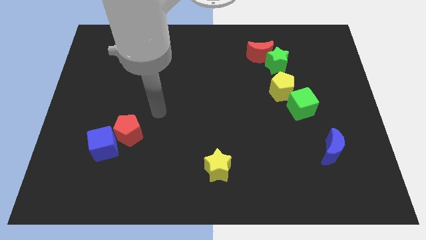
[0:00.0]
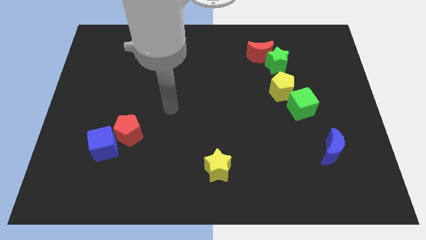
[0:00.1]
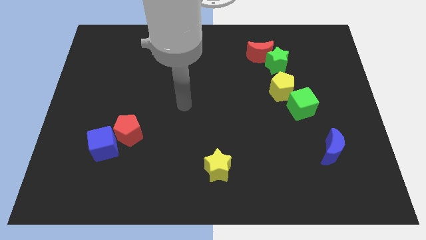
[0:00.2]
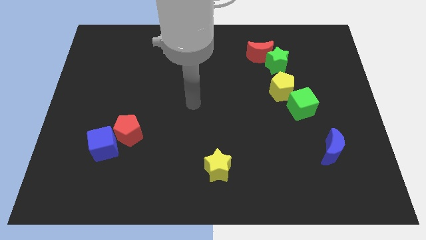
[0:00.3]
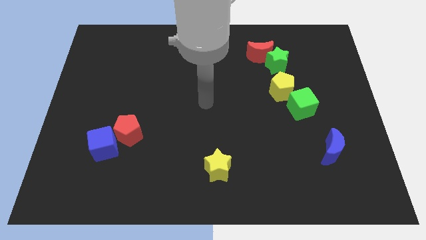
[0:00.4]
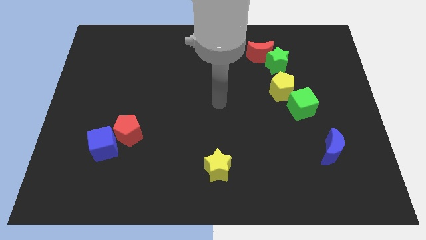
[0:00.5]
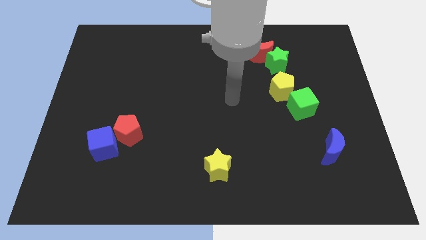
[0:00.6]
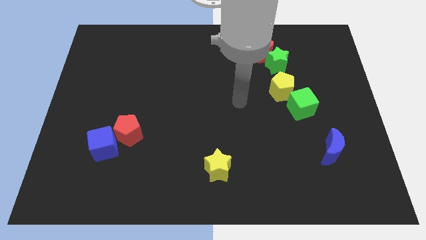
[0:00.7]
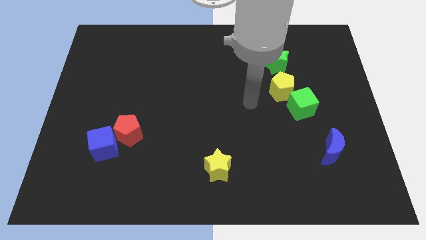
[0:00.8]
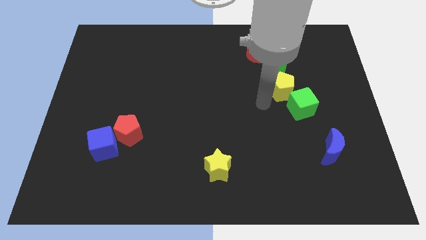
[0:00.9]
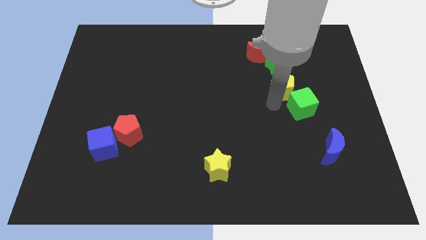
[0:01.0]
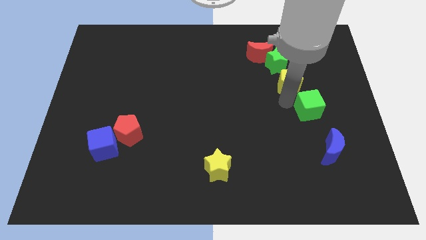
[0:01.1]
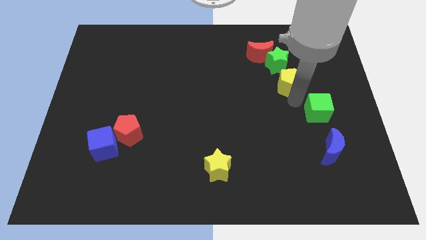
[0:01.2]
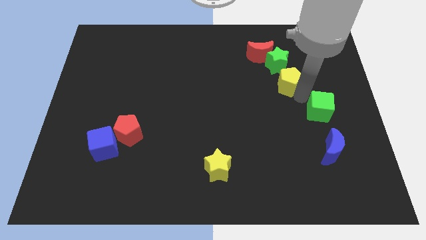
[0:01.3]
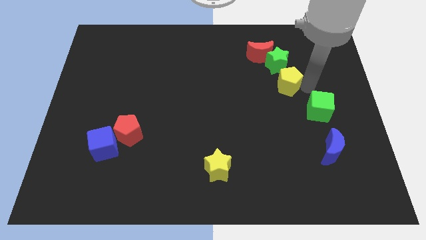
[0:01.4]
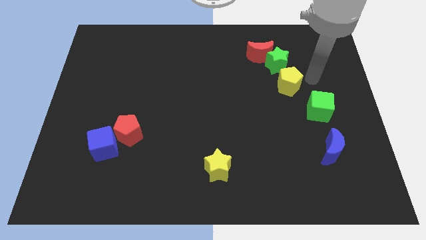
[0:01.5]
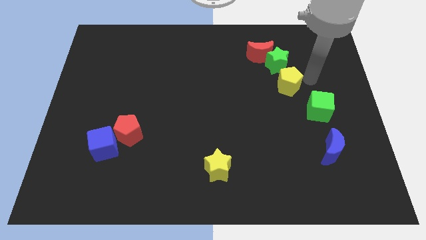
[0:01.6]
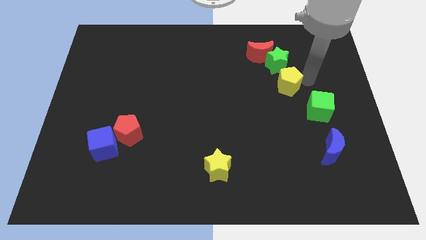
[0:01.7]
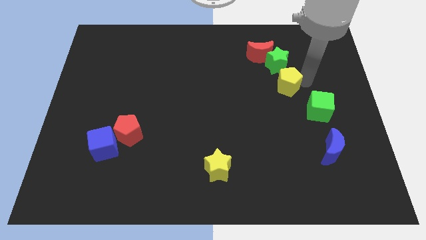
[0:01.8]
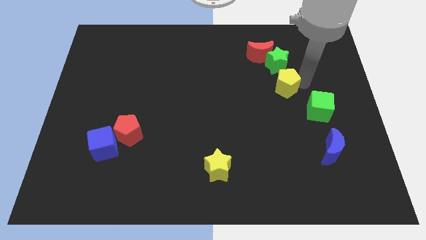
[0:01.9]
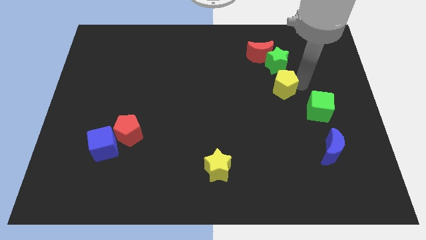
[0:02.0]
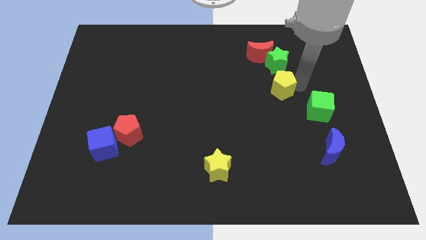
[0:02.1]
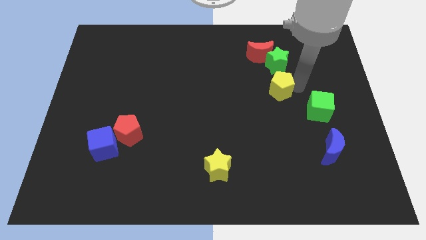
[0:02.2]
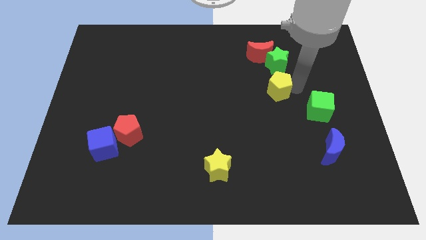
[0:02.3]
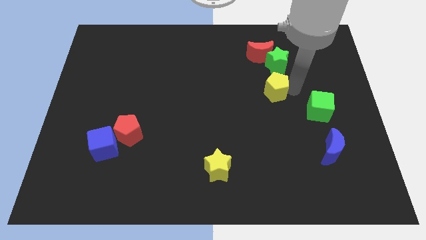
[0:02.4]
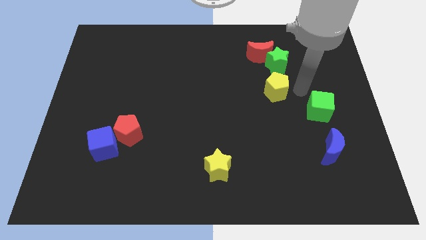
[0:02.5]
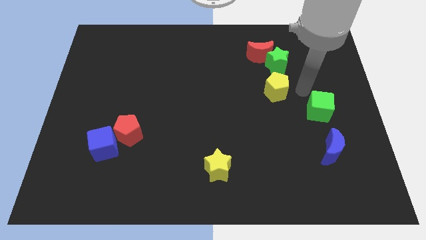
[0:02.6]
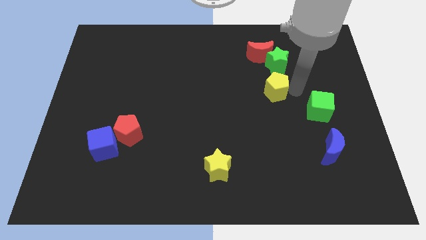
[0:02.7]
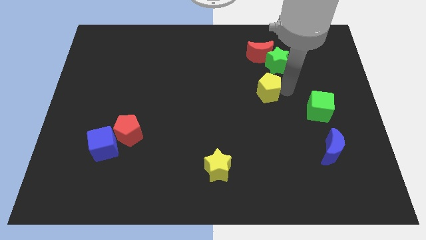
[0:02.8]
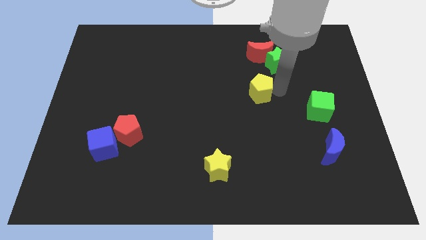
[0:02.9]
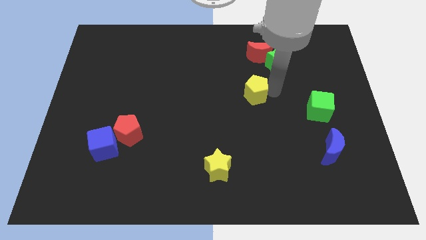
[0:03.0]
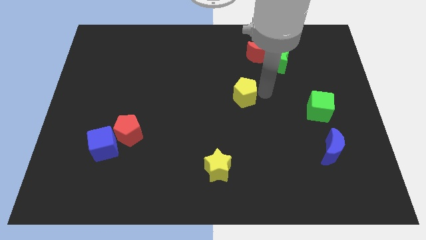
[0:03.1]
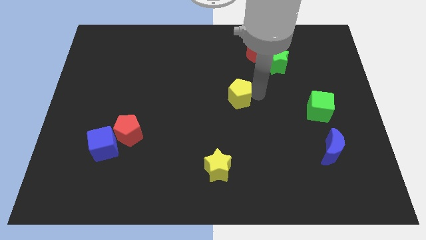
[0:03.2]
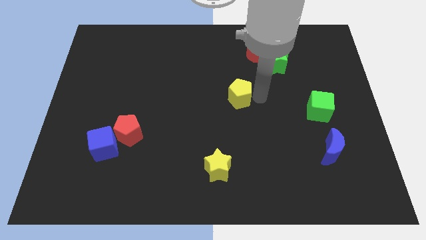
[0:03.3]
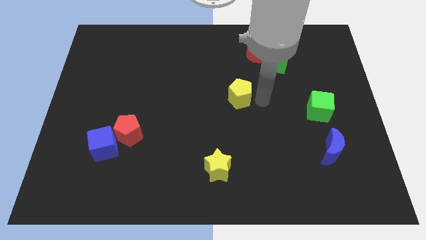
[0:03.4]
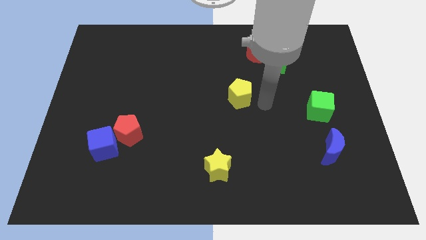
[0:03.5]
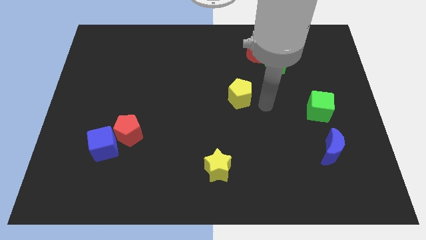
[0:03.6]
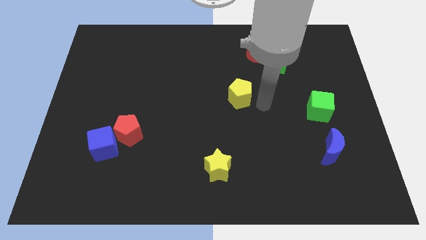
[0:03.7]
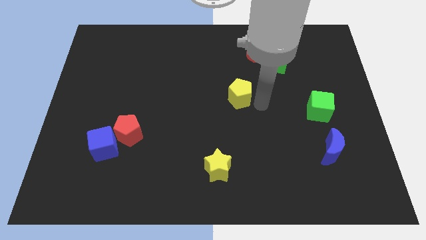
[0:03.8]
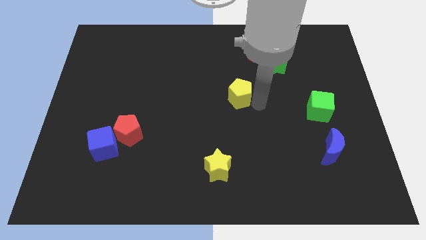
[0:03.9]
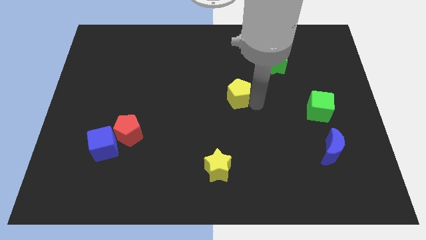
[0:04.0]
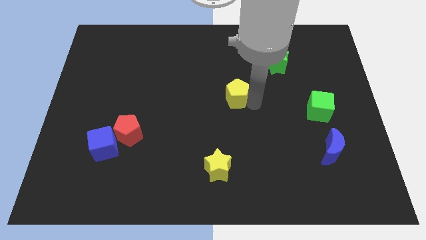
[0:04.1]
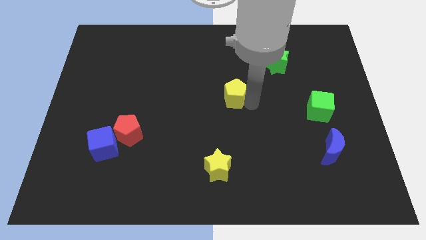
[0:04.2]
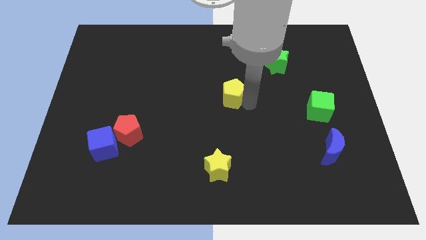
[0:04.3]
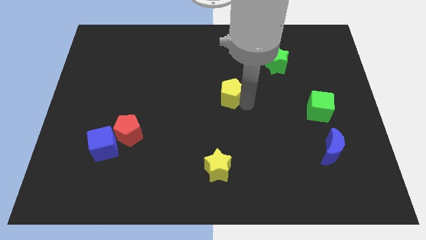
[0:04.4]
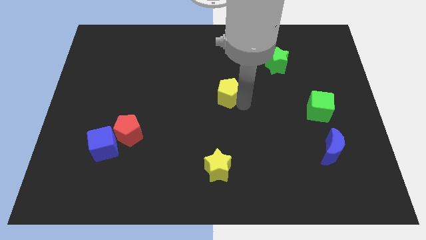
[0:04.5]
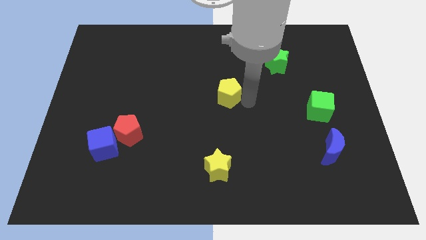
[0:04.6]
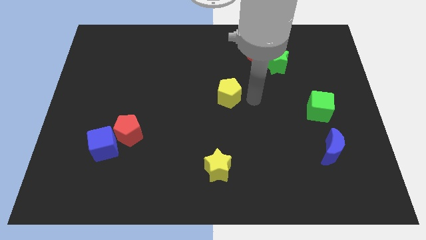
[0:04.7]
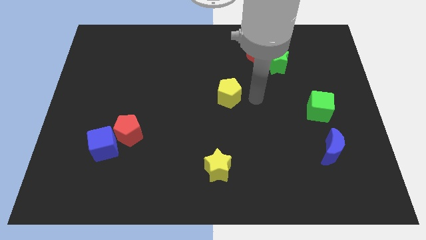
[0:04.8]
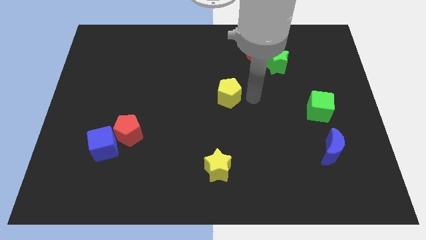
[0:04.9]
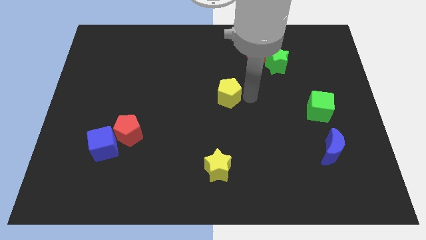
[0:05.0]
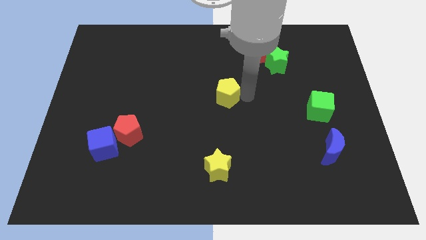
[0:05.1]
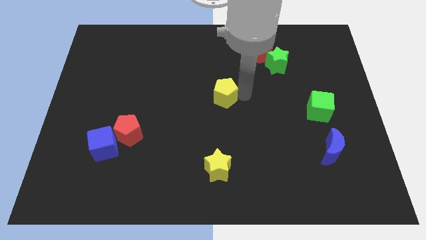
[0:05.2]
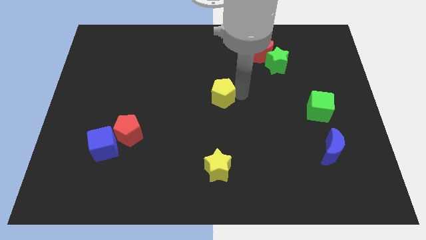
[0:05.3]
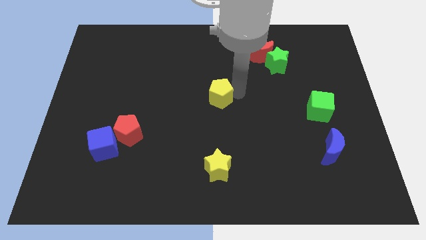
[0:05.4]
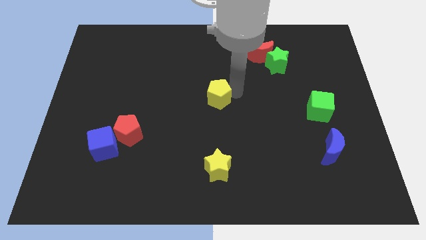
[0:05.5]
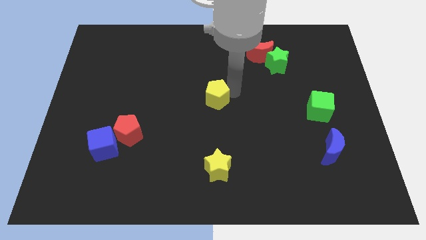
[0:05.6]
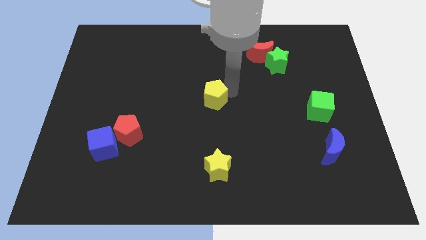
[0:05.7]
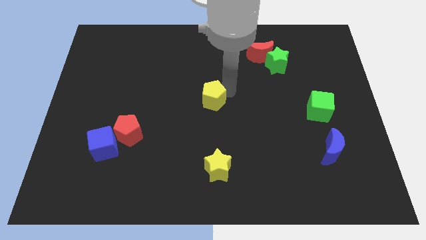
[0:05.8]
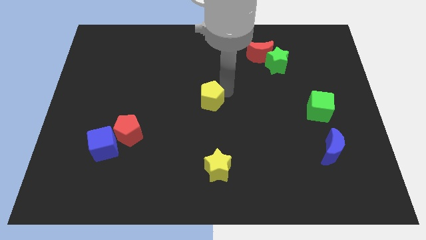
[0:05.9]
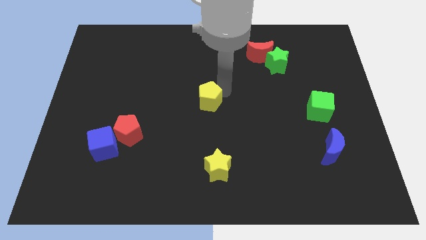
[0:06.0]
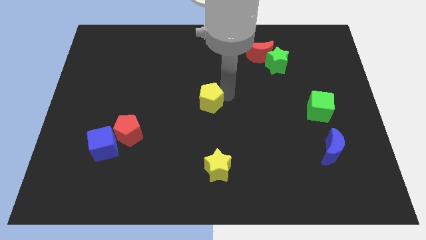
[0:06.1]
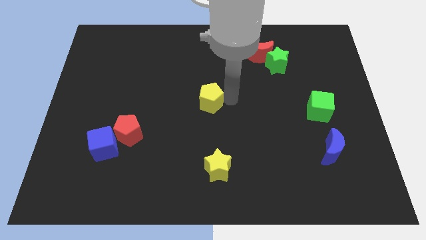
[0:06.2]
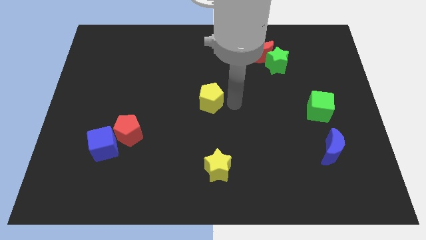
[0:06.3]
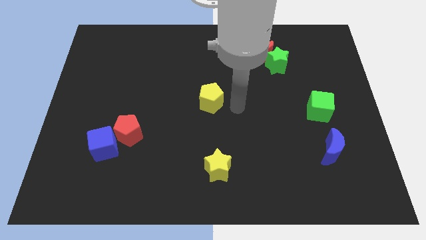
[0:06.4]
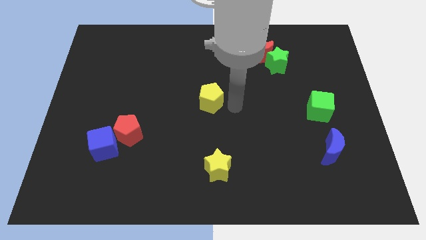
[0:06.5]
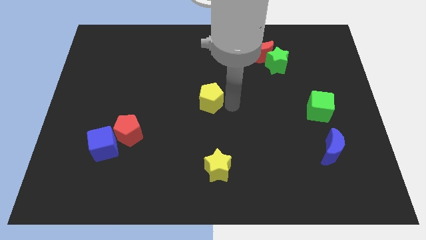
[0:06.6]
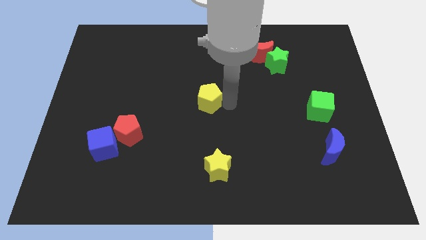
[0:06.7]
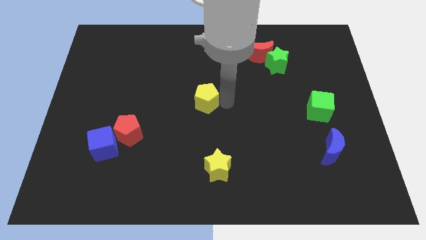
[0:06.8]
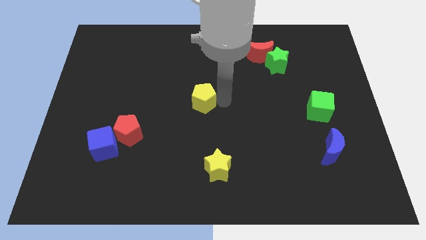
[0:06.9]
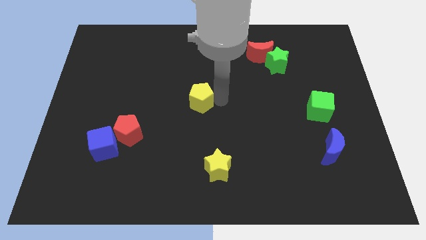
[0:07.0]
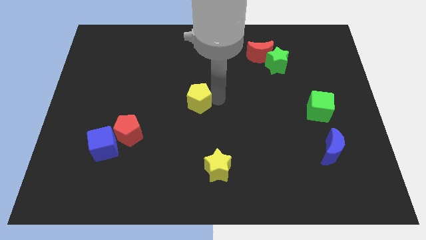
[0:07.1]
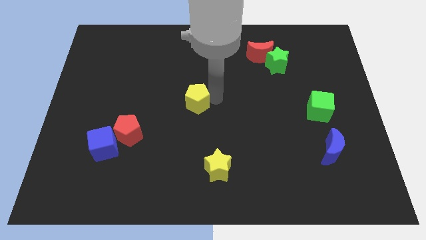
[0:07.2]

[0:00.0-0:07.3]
slide the yellow pentagon left

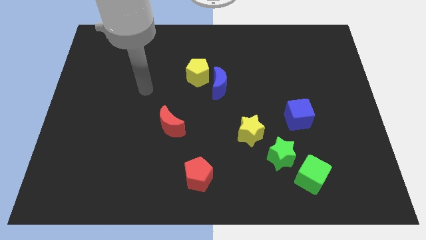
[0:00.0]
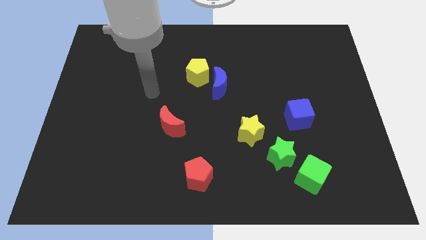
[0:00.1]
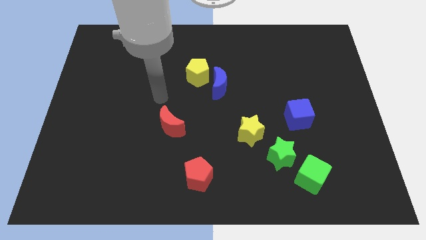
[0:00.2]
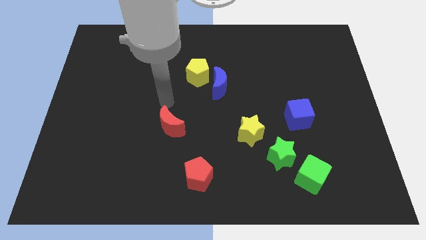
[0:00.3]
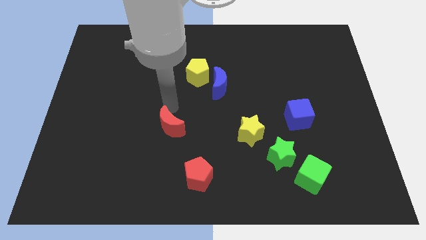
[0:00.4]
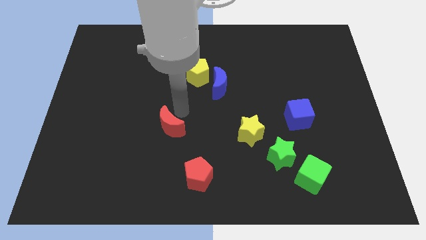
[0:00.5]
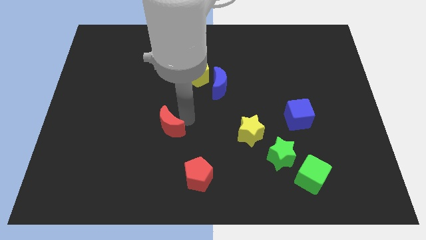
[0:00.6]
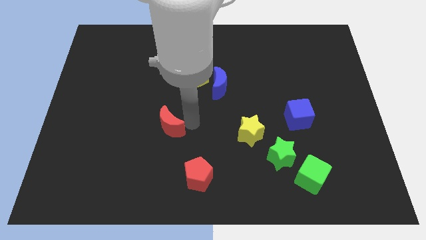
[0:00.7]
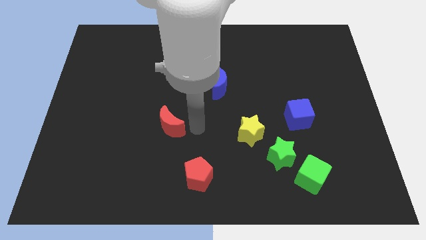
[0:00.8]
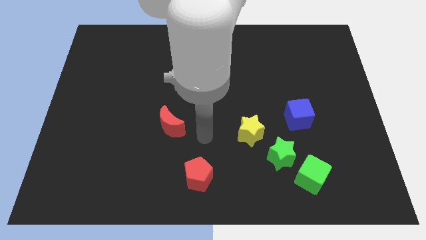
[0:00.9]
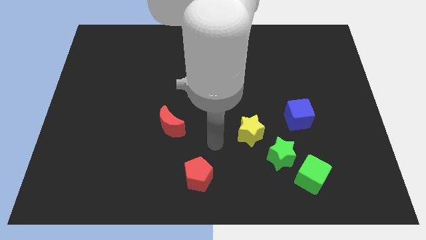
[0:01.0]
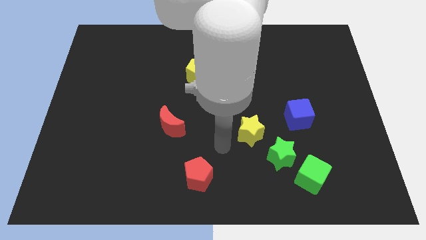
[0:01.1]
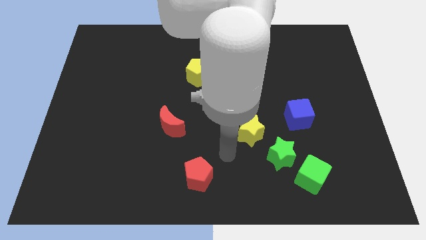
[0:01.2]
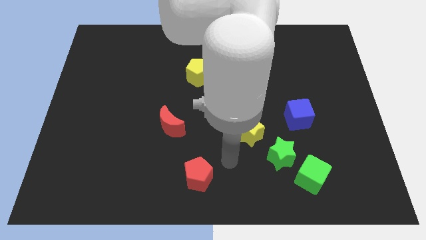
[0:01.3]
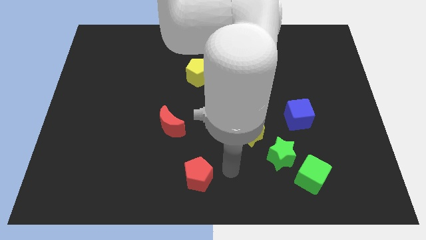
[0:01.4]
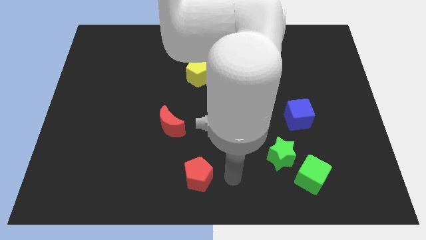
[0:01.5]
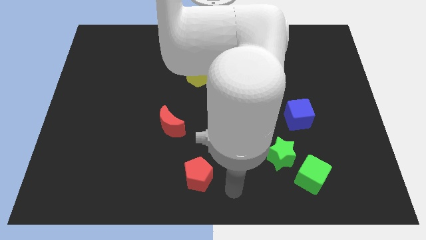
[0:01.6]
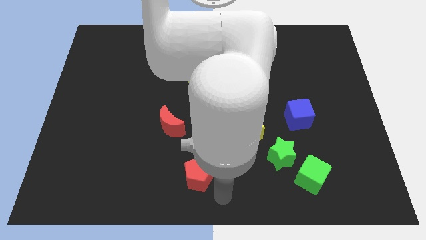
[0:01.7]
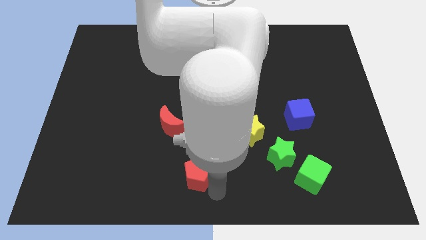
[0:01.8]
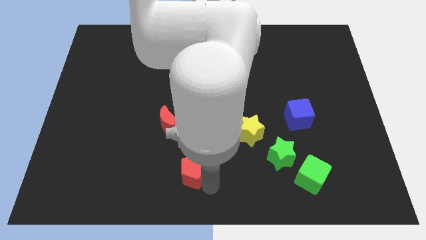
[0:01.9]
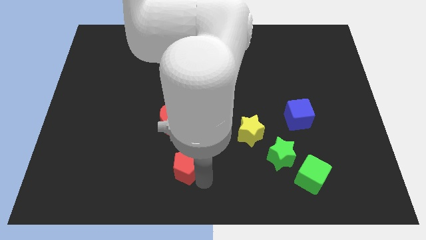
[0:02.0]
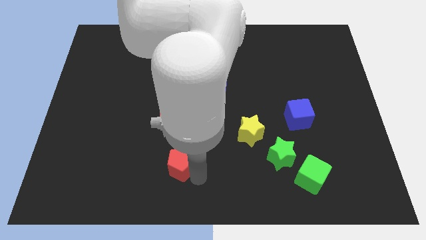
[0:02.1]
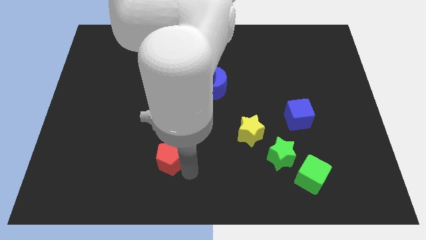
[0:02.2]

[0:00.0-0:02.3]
push the red pentagon upwards and then left slightly
